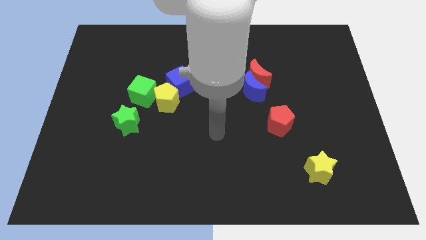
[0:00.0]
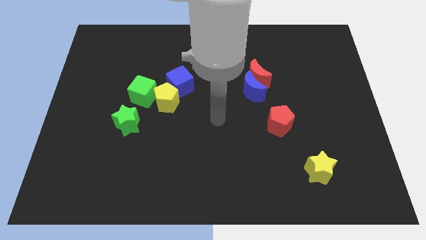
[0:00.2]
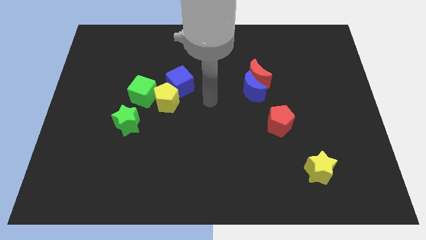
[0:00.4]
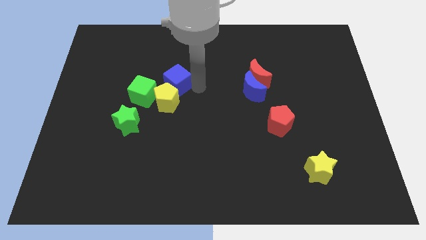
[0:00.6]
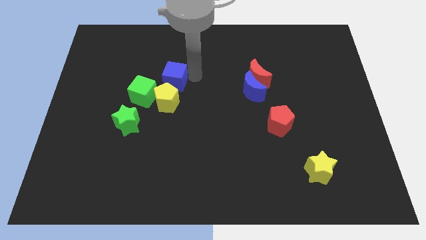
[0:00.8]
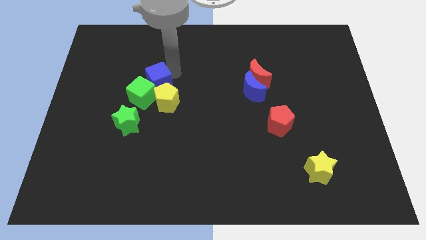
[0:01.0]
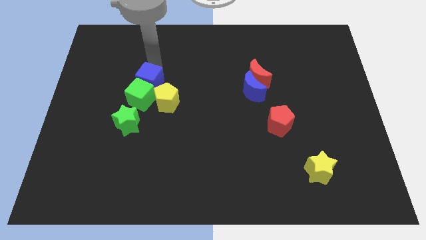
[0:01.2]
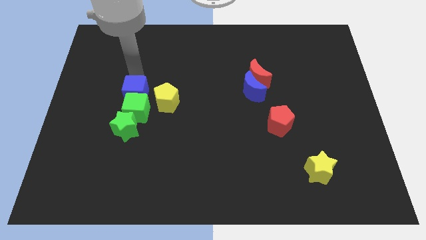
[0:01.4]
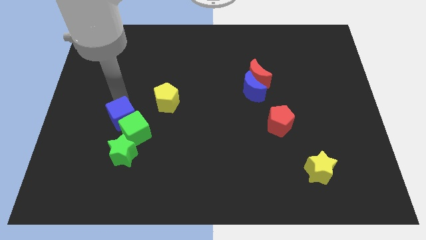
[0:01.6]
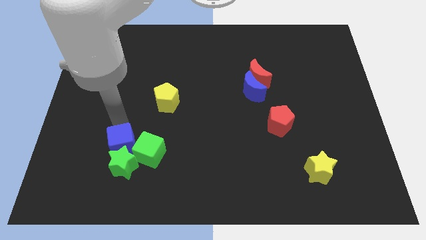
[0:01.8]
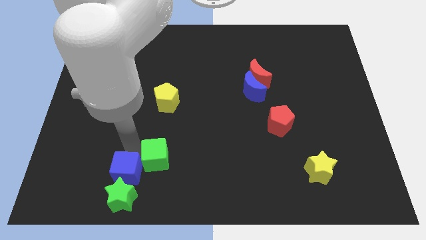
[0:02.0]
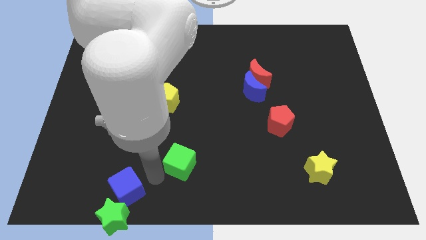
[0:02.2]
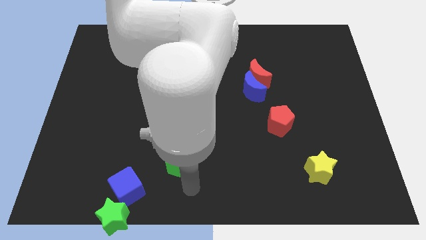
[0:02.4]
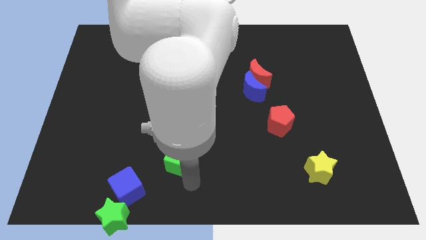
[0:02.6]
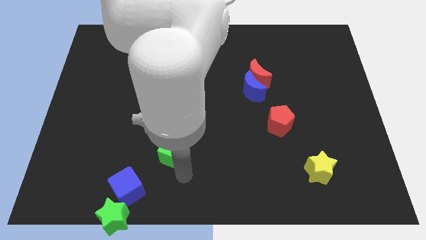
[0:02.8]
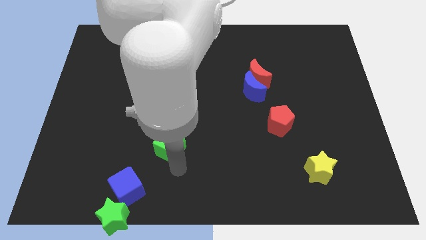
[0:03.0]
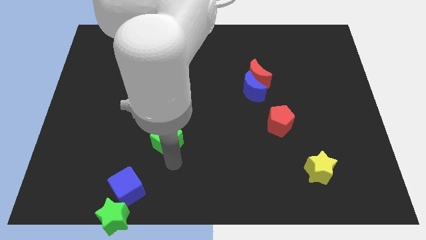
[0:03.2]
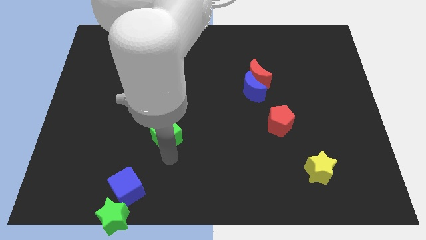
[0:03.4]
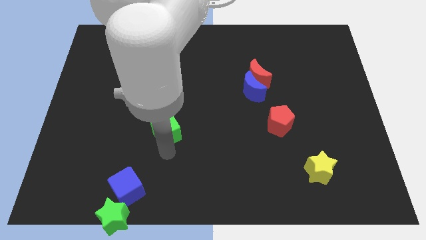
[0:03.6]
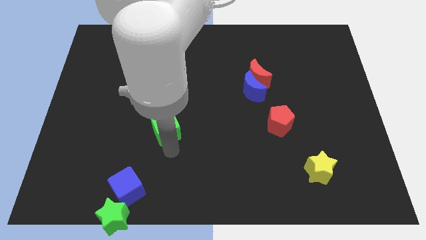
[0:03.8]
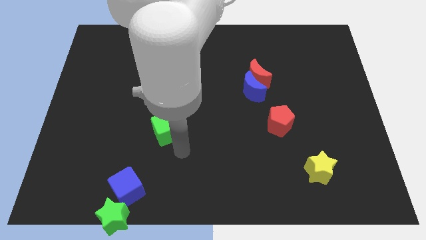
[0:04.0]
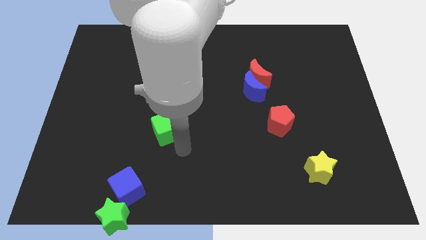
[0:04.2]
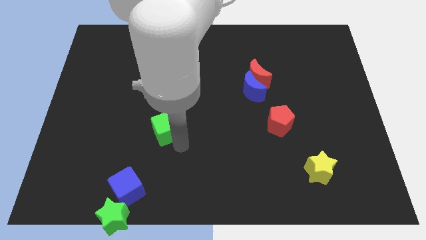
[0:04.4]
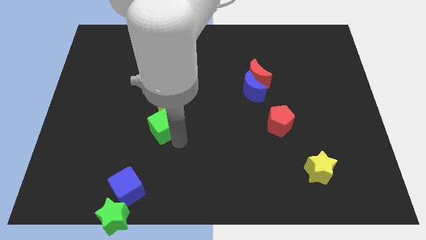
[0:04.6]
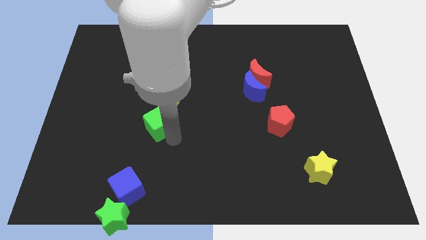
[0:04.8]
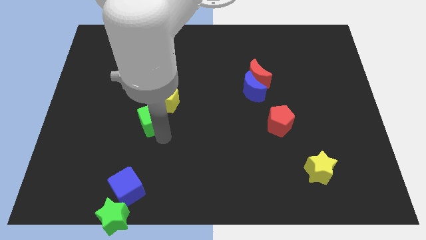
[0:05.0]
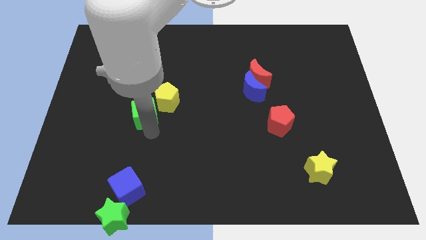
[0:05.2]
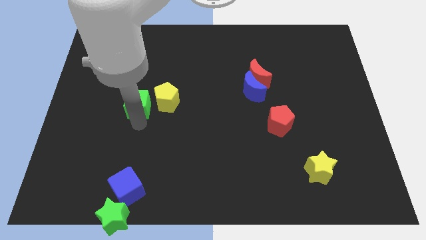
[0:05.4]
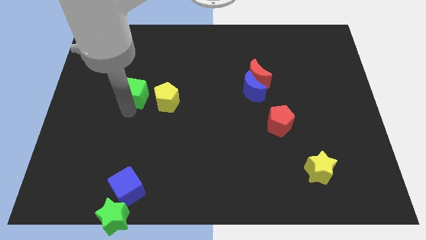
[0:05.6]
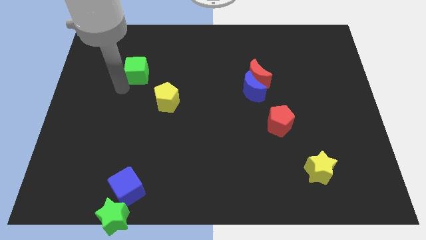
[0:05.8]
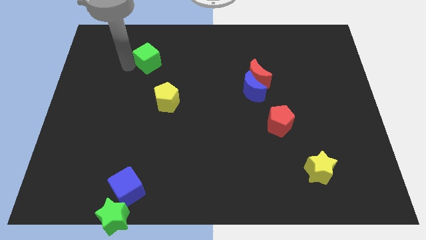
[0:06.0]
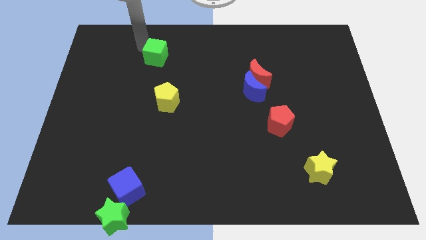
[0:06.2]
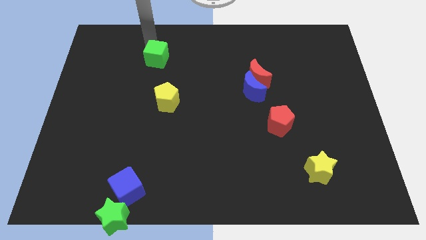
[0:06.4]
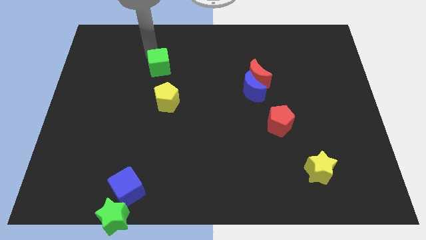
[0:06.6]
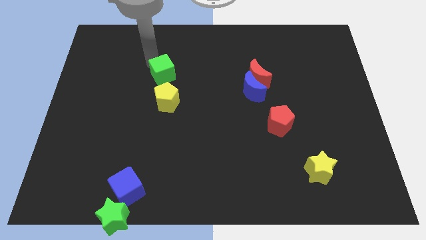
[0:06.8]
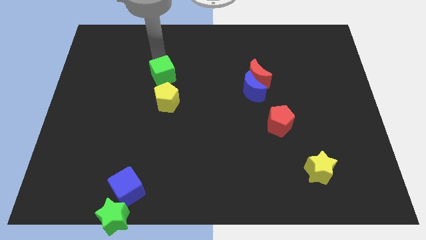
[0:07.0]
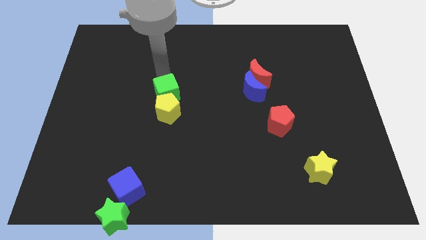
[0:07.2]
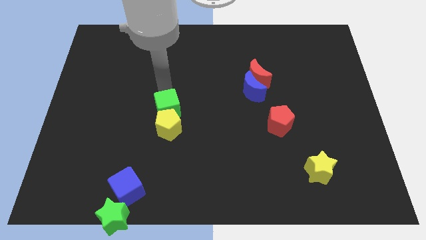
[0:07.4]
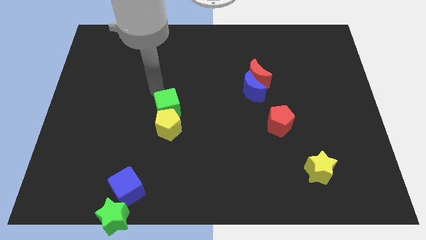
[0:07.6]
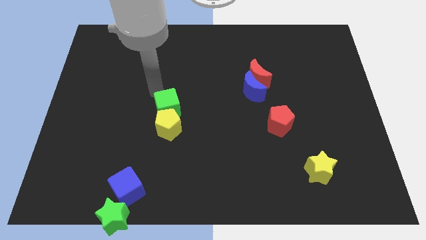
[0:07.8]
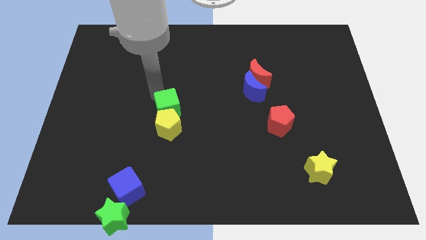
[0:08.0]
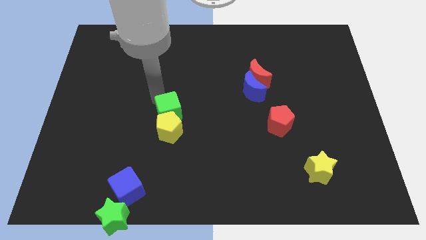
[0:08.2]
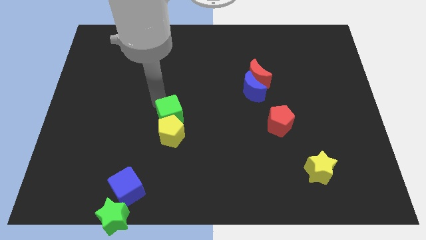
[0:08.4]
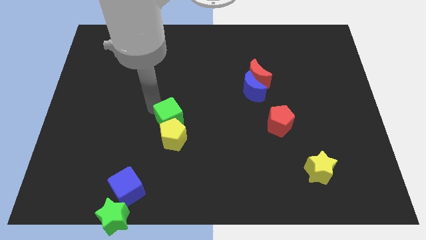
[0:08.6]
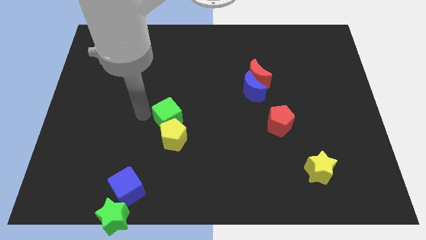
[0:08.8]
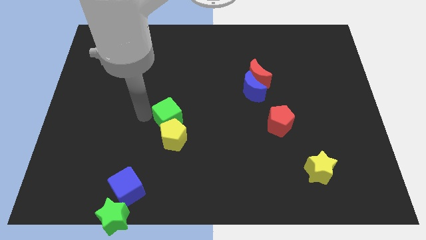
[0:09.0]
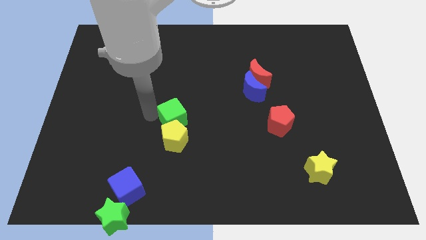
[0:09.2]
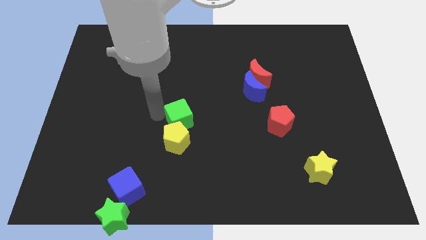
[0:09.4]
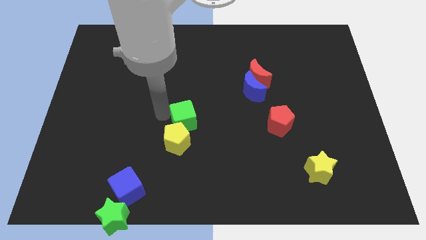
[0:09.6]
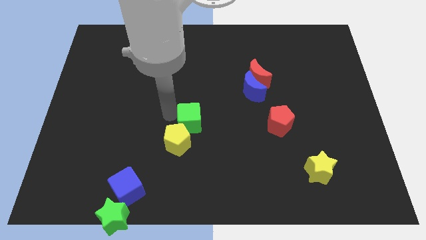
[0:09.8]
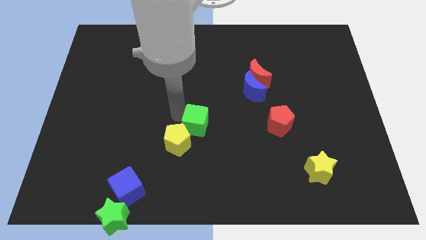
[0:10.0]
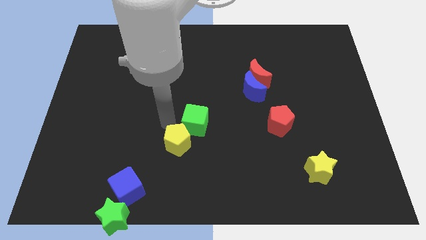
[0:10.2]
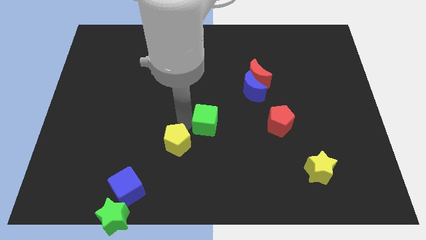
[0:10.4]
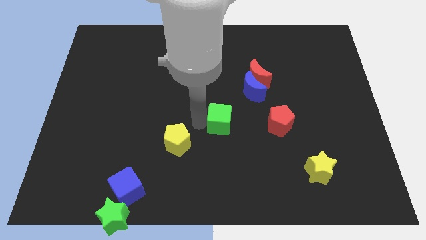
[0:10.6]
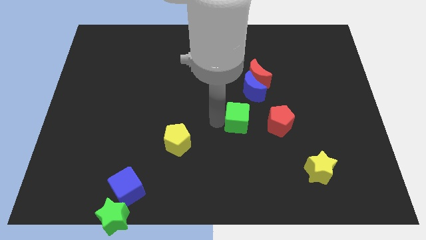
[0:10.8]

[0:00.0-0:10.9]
move the green cube below the blue moon

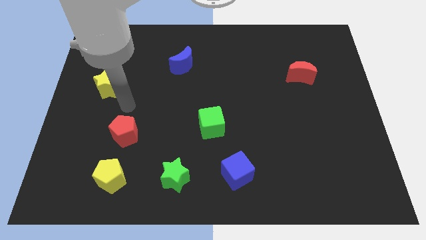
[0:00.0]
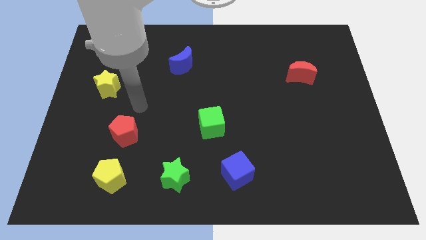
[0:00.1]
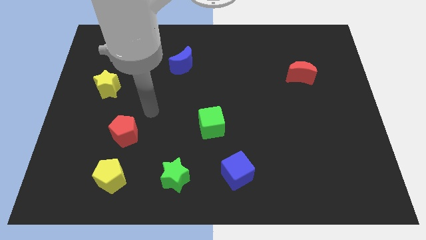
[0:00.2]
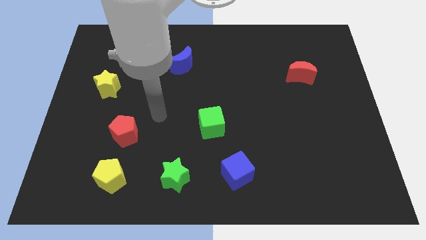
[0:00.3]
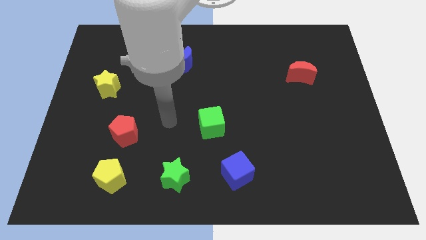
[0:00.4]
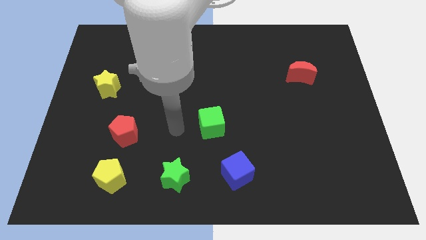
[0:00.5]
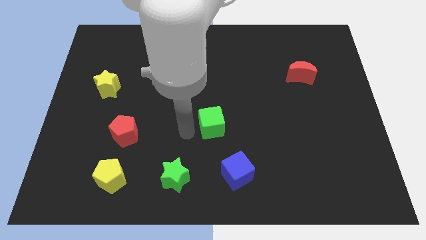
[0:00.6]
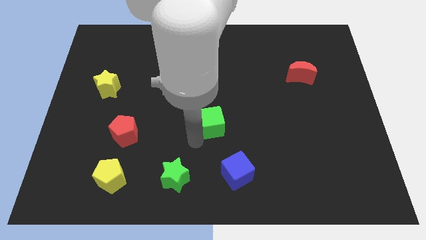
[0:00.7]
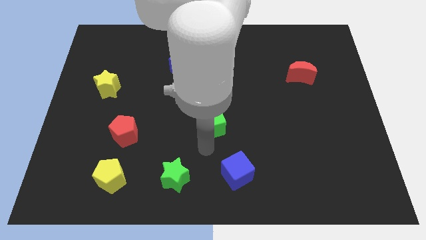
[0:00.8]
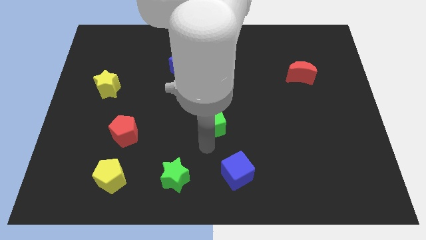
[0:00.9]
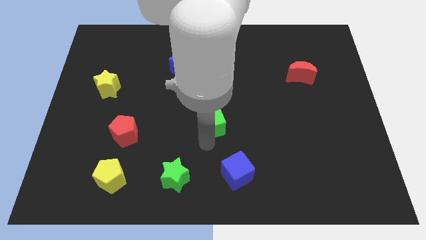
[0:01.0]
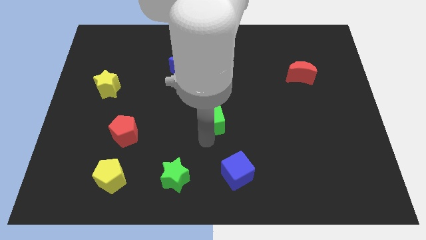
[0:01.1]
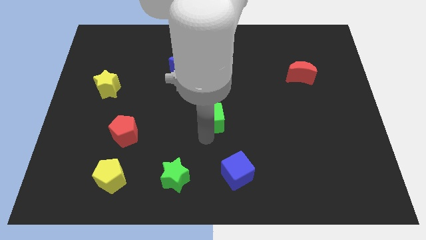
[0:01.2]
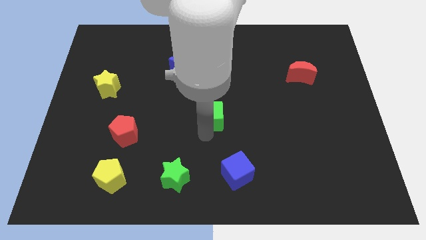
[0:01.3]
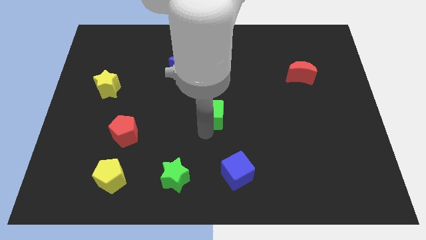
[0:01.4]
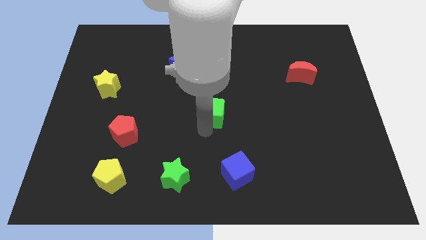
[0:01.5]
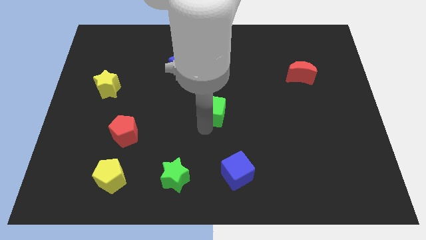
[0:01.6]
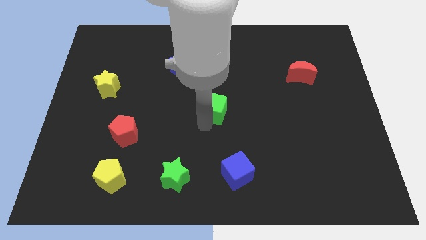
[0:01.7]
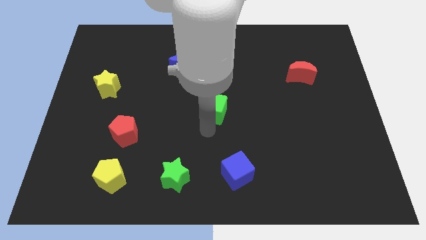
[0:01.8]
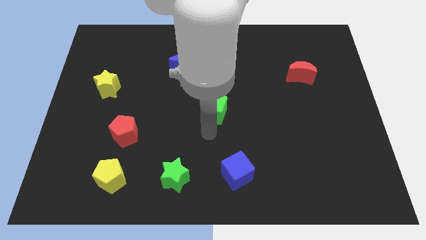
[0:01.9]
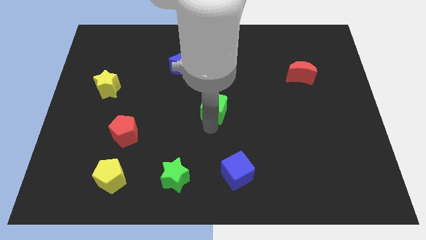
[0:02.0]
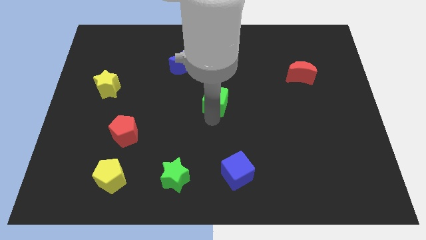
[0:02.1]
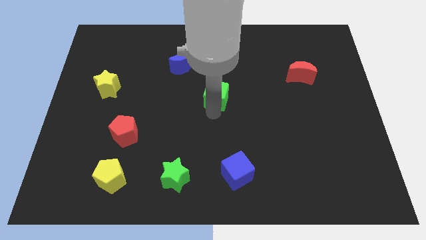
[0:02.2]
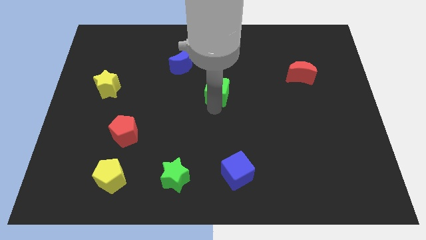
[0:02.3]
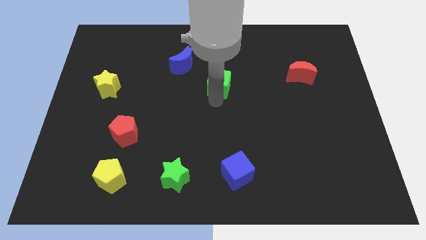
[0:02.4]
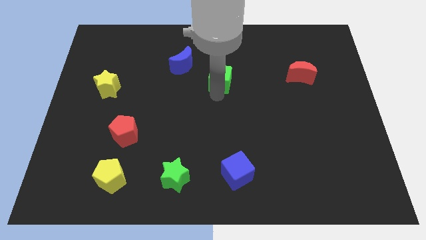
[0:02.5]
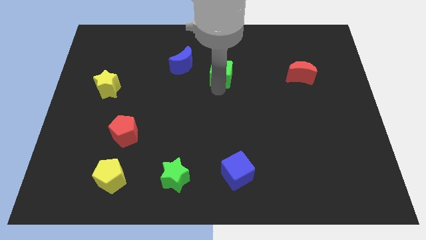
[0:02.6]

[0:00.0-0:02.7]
move the green cube right of the blue moon
